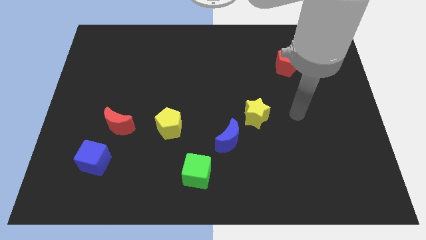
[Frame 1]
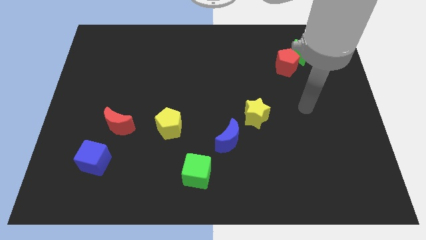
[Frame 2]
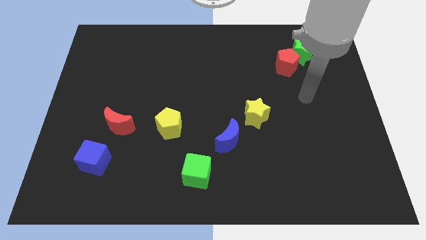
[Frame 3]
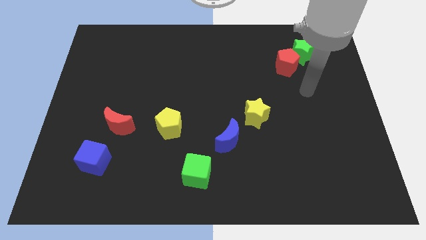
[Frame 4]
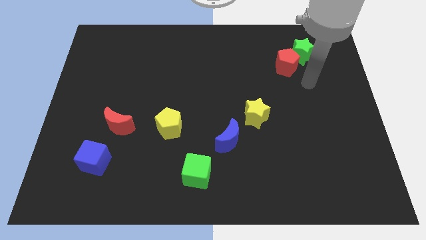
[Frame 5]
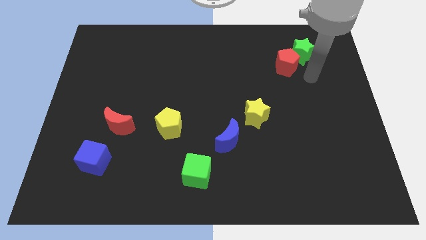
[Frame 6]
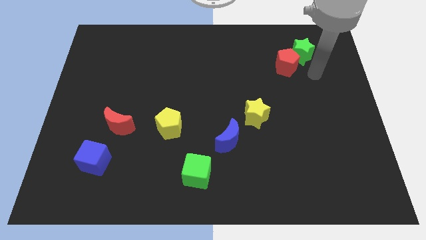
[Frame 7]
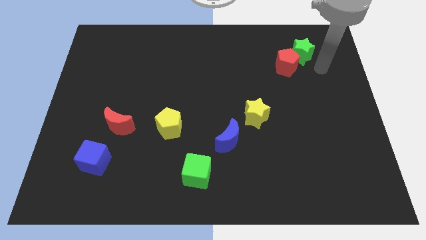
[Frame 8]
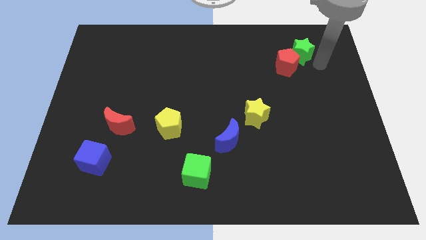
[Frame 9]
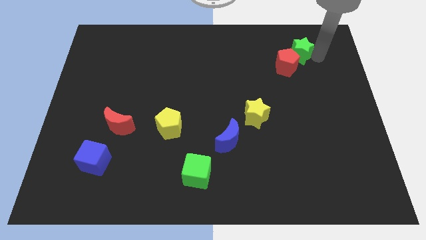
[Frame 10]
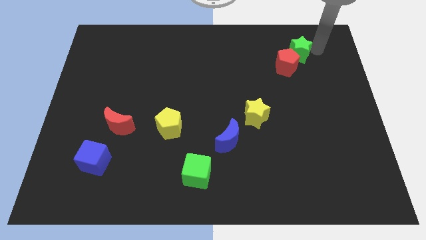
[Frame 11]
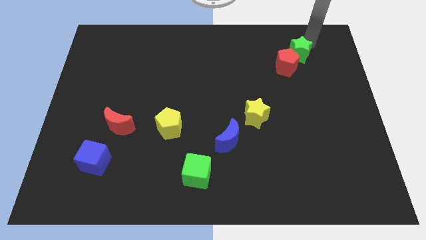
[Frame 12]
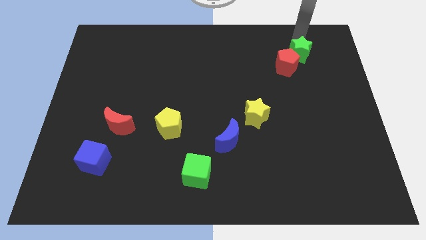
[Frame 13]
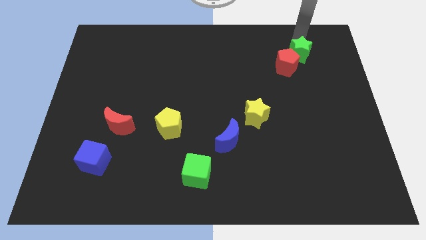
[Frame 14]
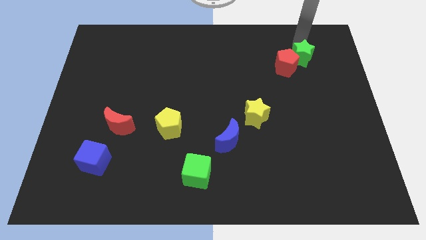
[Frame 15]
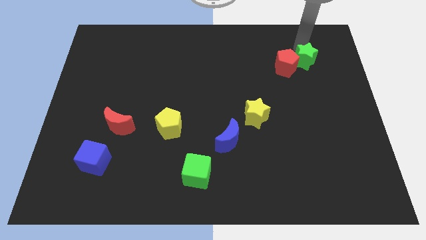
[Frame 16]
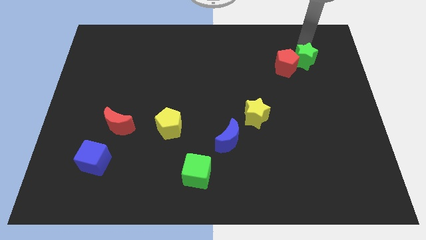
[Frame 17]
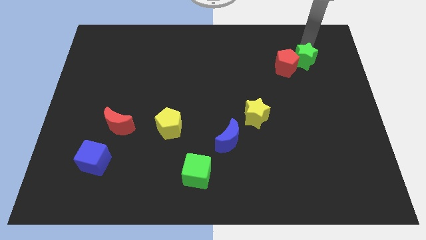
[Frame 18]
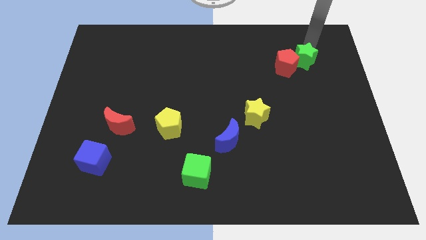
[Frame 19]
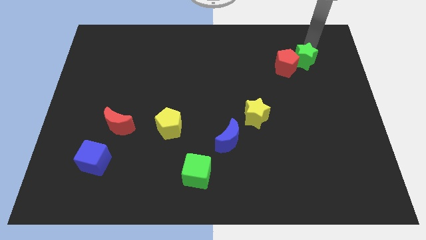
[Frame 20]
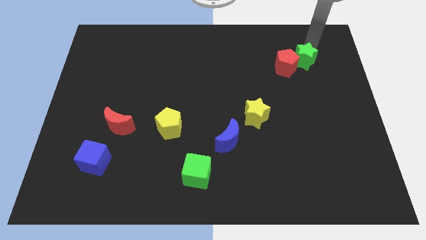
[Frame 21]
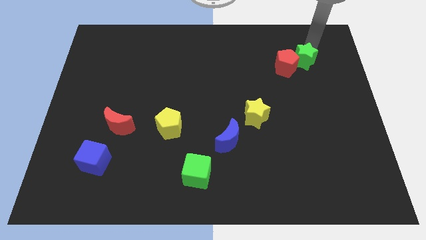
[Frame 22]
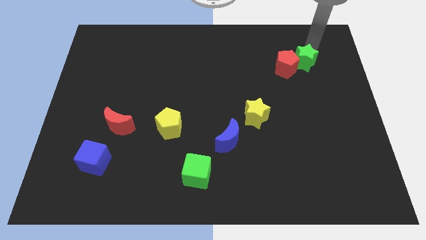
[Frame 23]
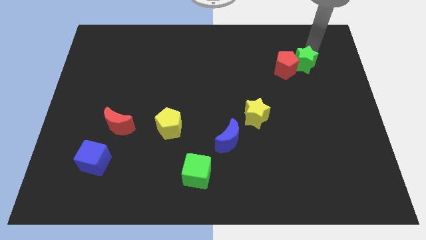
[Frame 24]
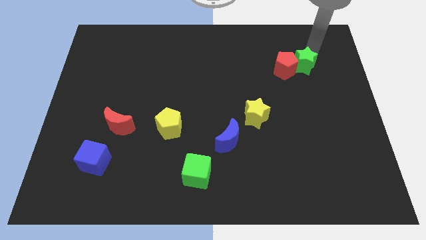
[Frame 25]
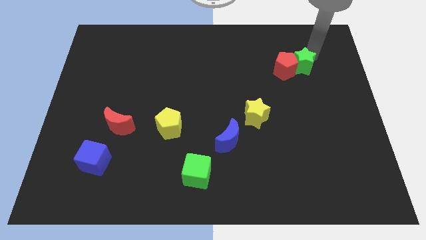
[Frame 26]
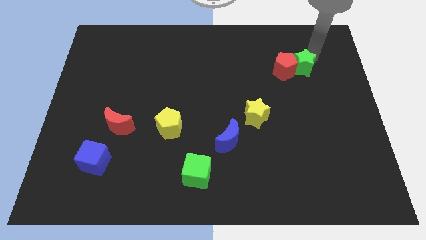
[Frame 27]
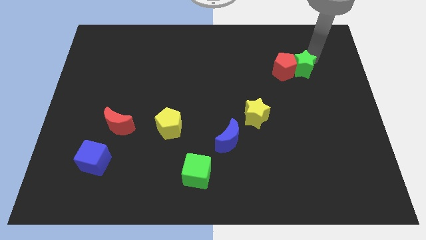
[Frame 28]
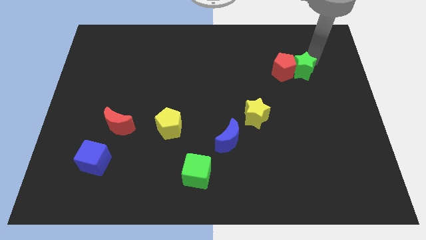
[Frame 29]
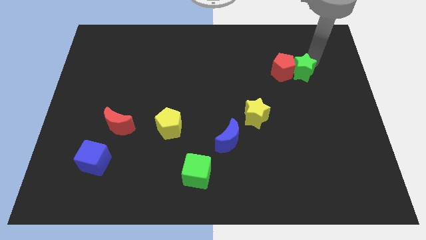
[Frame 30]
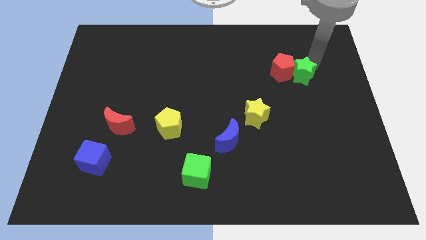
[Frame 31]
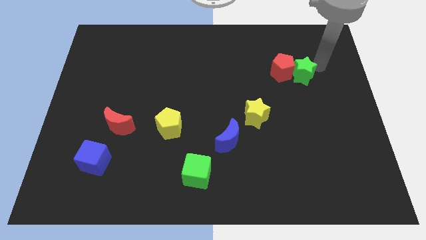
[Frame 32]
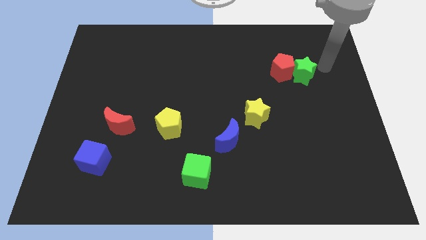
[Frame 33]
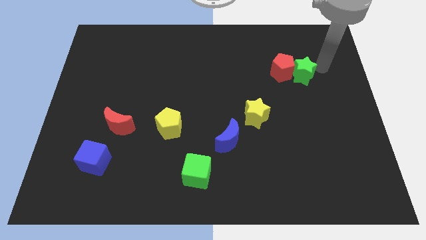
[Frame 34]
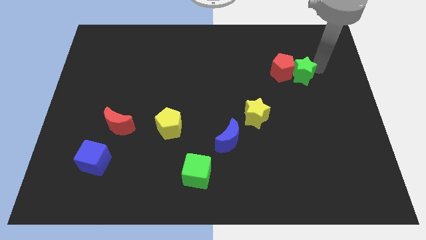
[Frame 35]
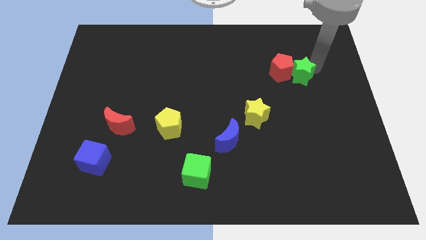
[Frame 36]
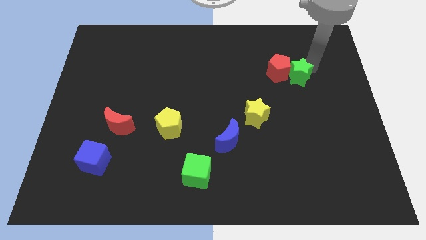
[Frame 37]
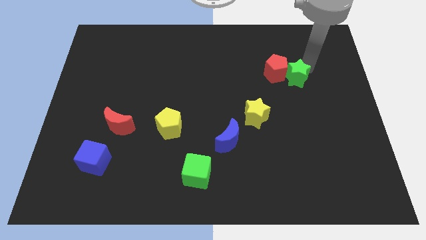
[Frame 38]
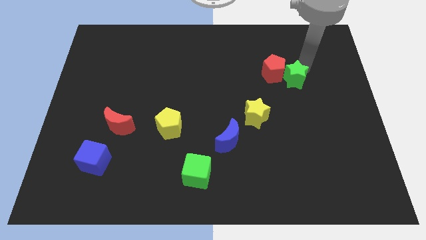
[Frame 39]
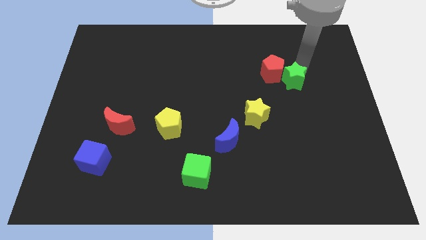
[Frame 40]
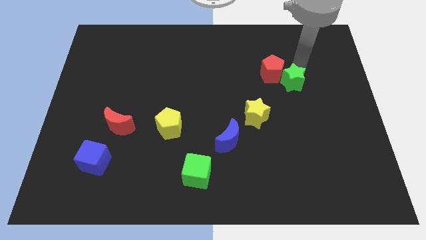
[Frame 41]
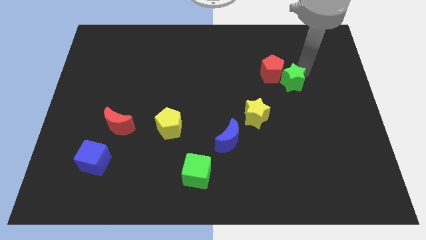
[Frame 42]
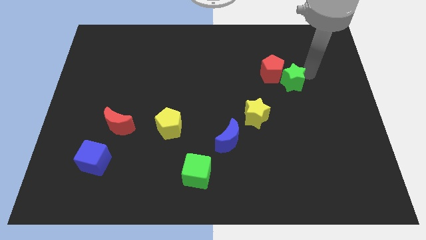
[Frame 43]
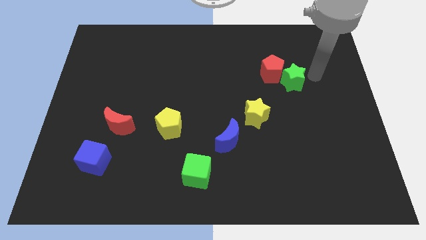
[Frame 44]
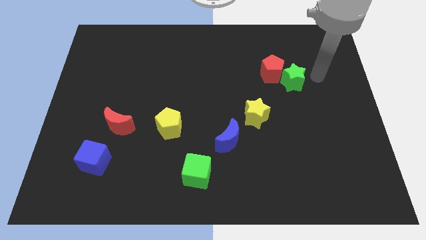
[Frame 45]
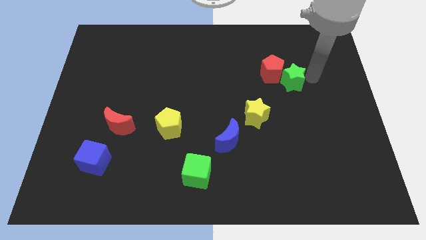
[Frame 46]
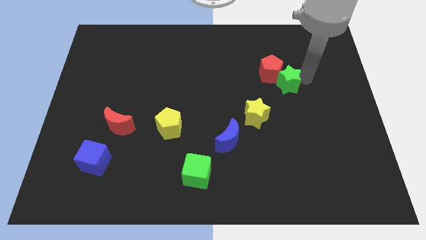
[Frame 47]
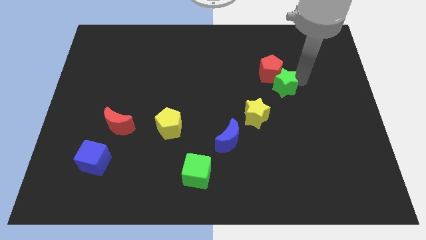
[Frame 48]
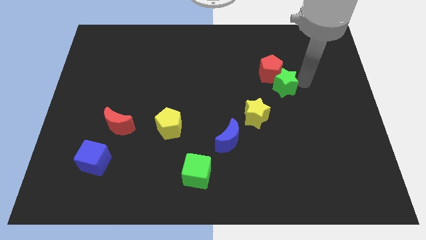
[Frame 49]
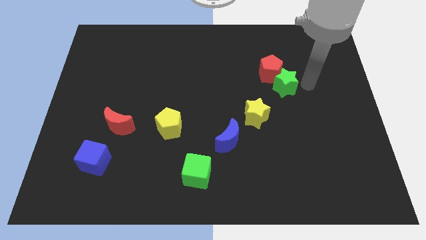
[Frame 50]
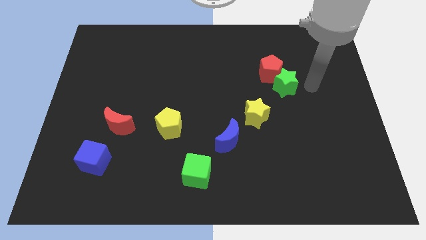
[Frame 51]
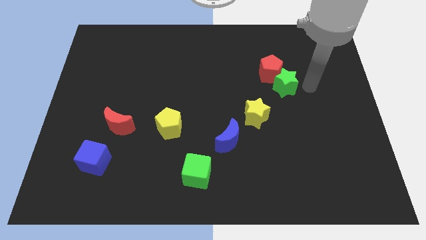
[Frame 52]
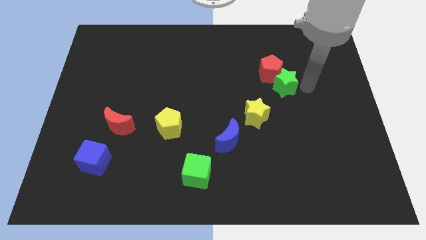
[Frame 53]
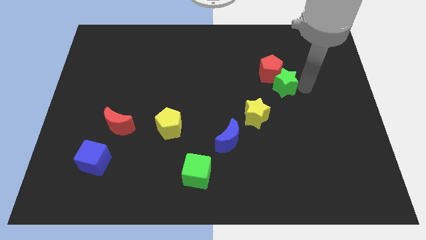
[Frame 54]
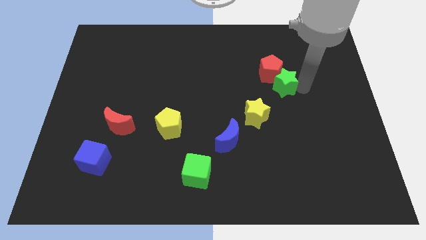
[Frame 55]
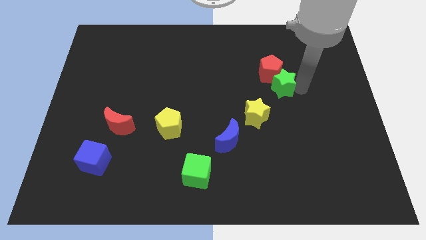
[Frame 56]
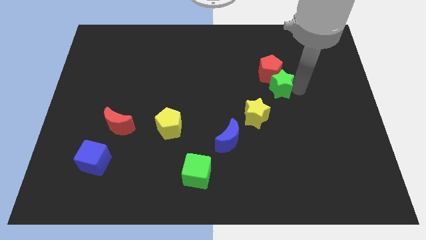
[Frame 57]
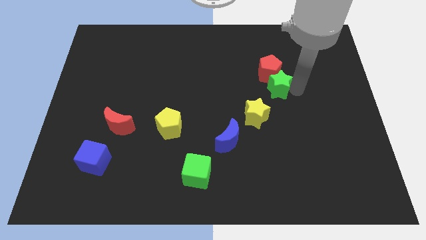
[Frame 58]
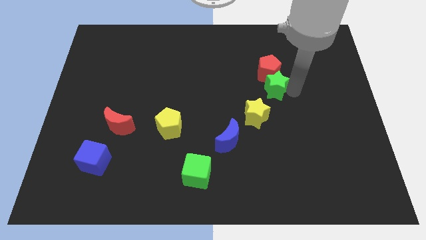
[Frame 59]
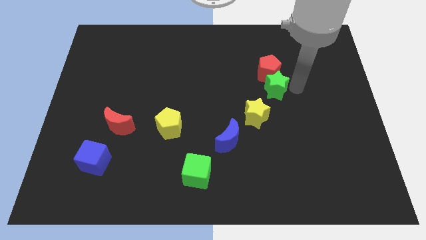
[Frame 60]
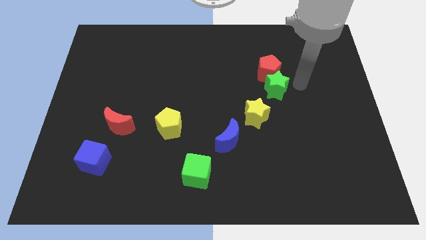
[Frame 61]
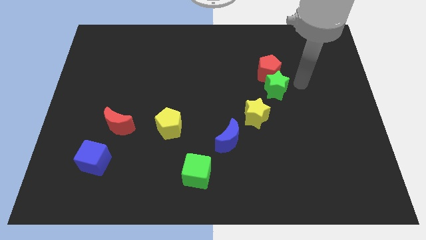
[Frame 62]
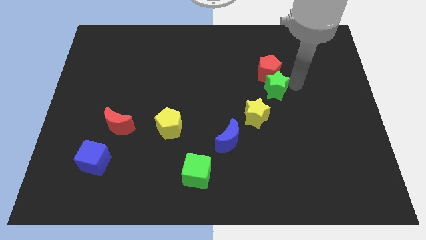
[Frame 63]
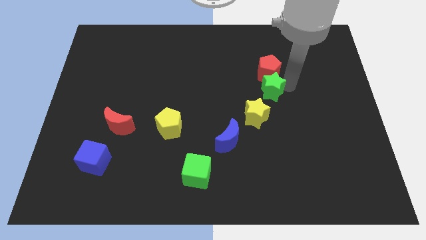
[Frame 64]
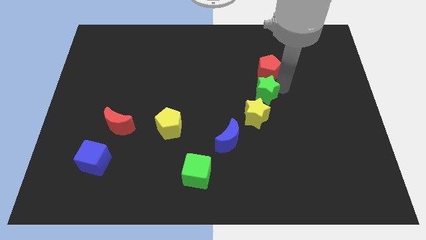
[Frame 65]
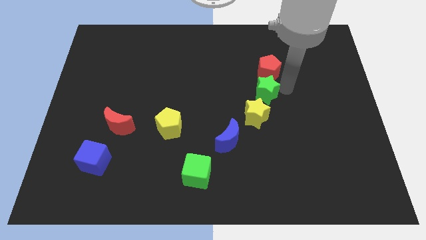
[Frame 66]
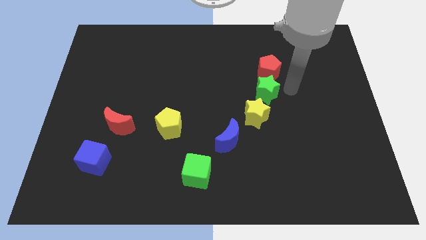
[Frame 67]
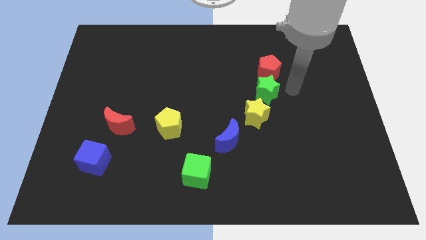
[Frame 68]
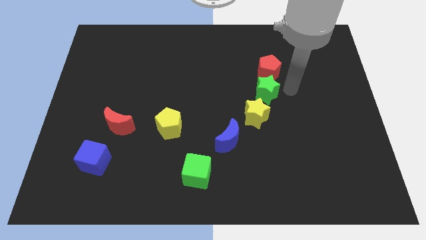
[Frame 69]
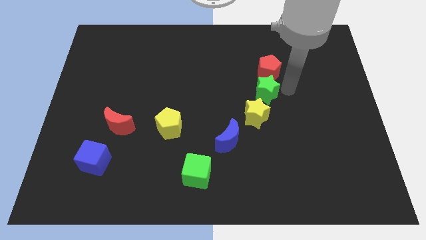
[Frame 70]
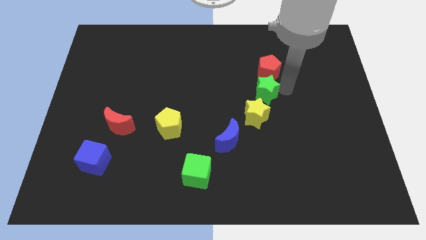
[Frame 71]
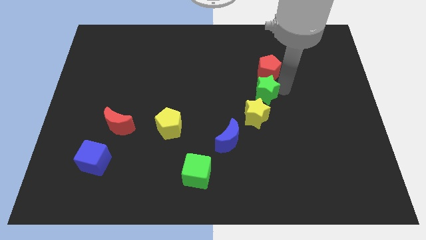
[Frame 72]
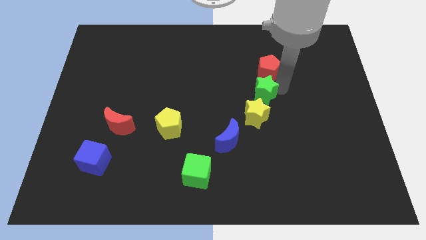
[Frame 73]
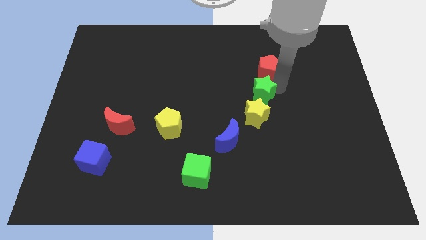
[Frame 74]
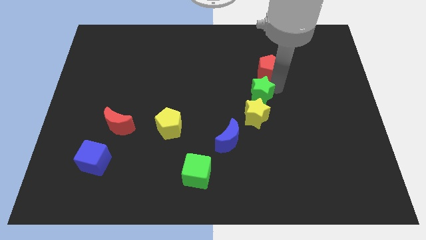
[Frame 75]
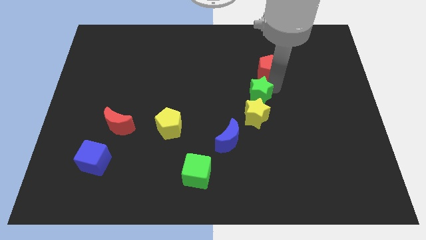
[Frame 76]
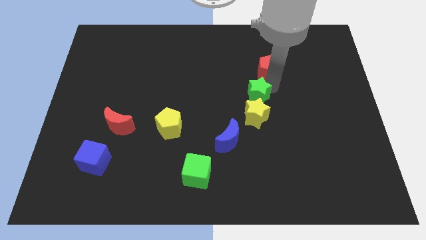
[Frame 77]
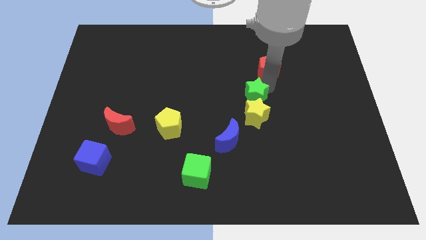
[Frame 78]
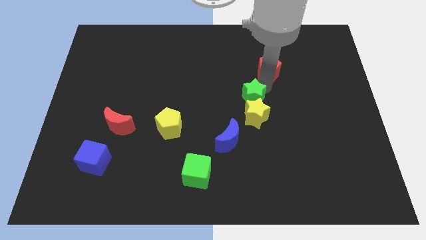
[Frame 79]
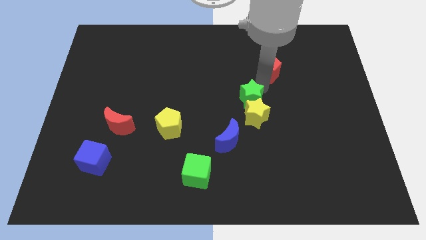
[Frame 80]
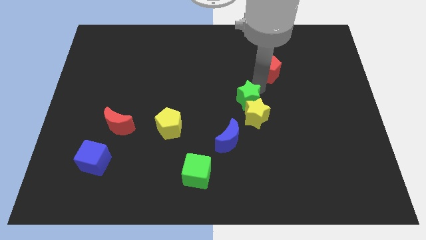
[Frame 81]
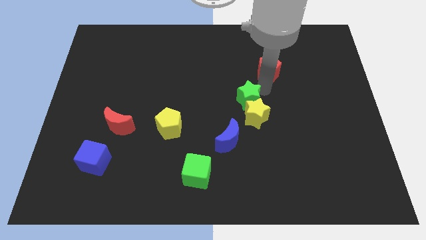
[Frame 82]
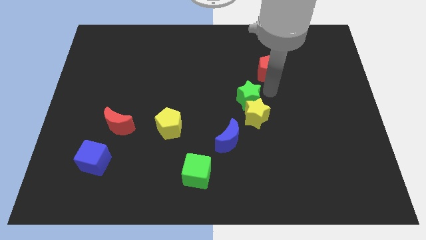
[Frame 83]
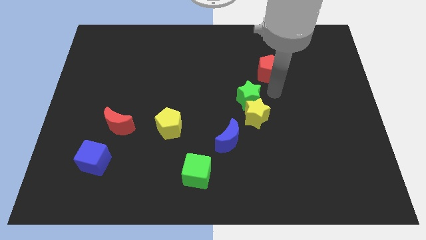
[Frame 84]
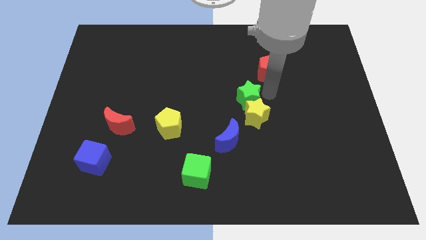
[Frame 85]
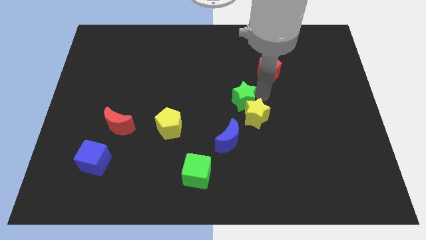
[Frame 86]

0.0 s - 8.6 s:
move the green star above the blue moon
